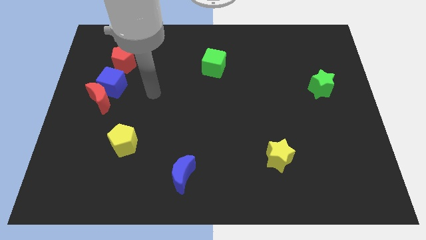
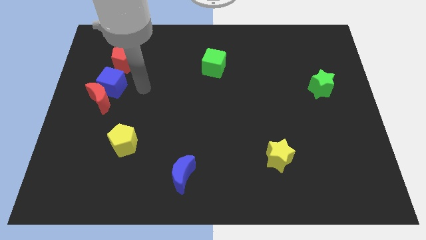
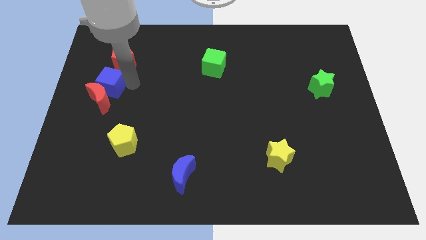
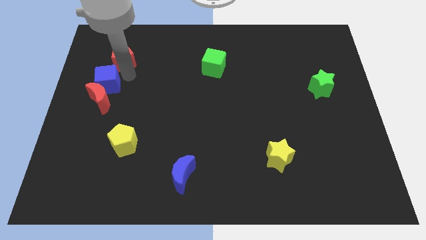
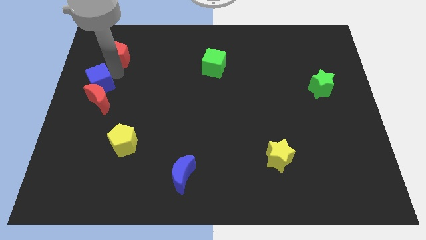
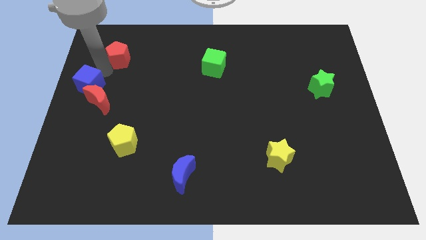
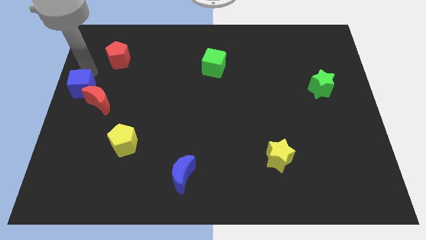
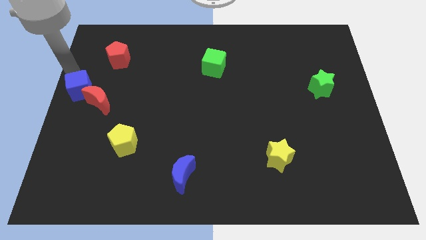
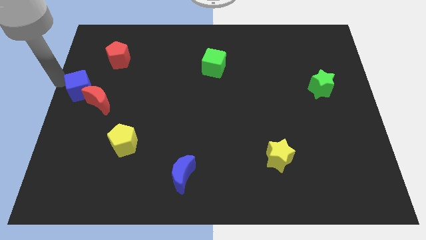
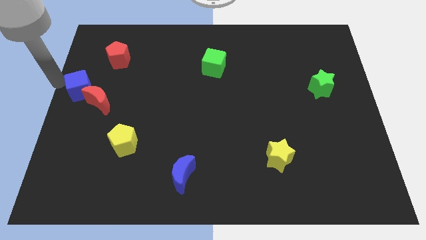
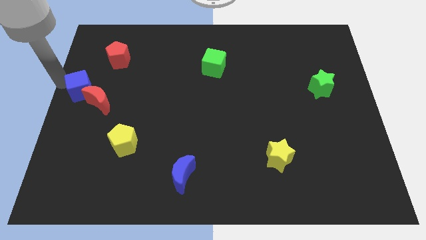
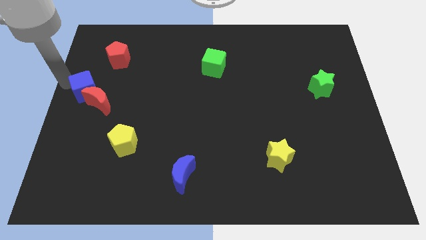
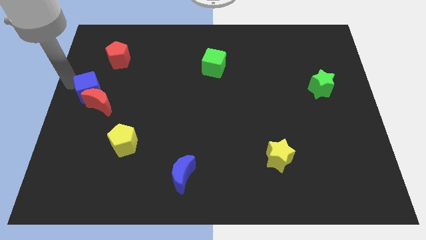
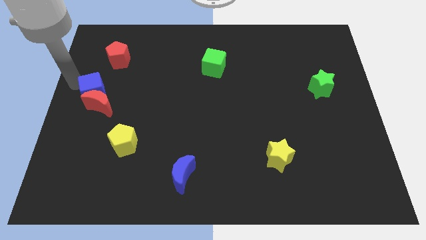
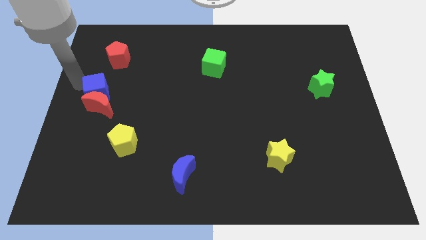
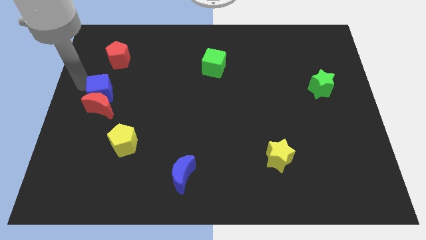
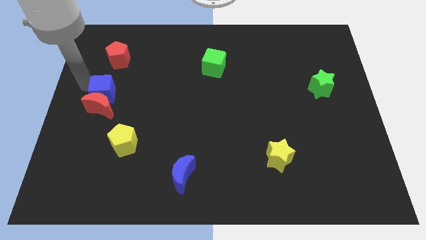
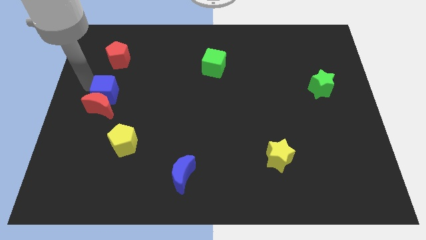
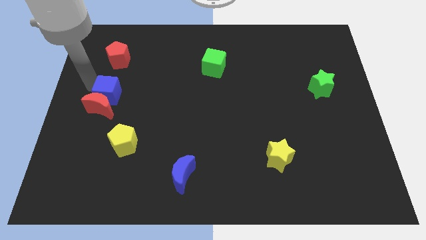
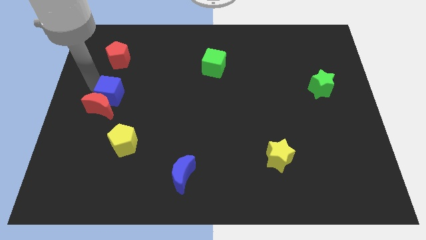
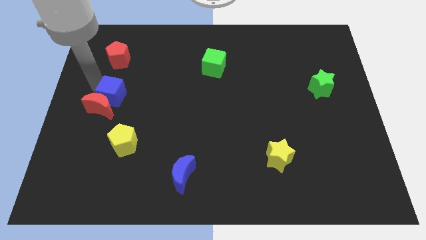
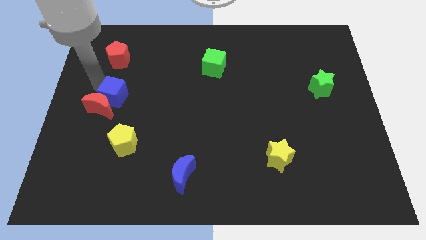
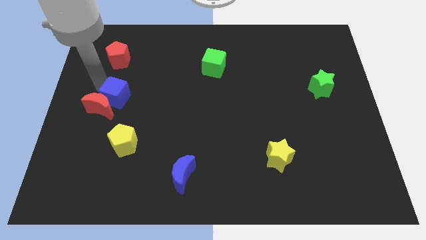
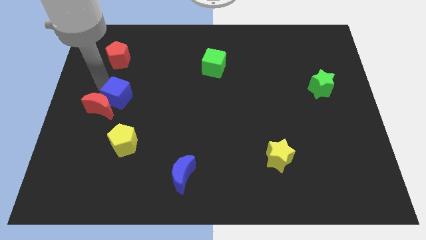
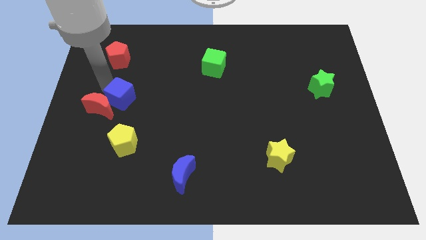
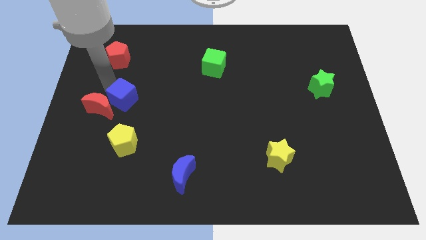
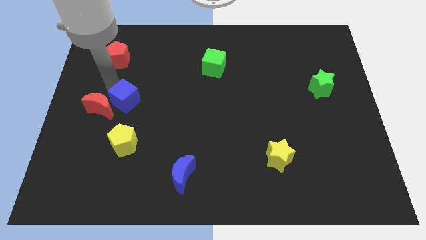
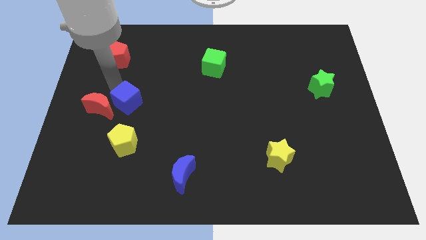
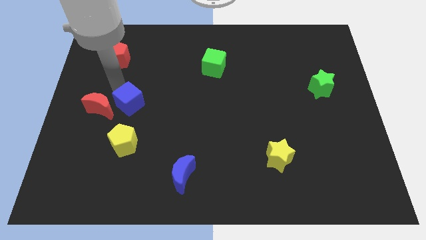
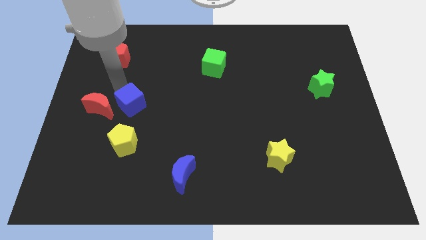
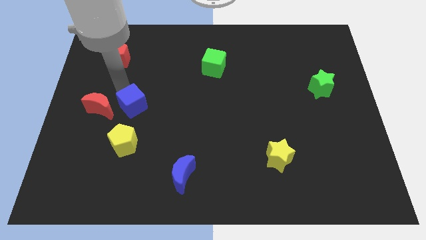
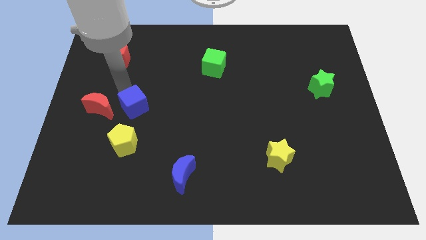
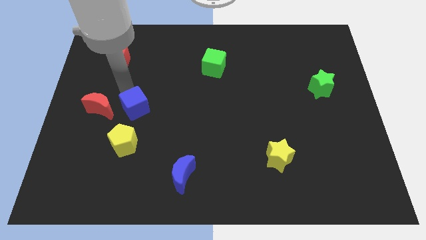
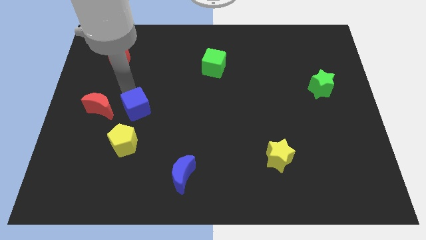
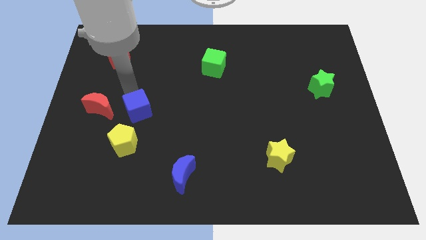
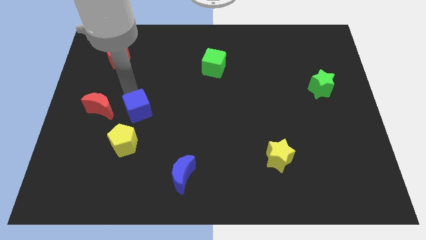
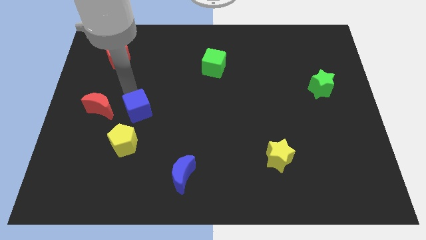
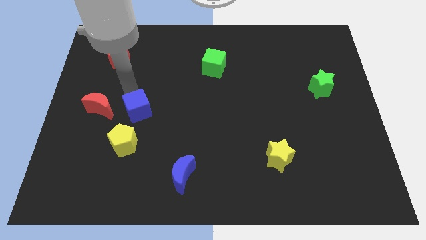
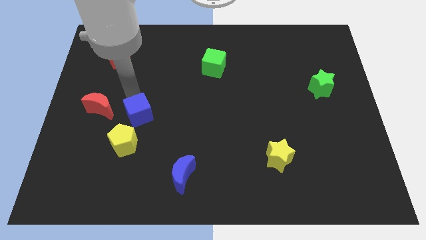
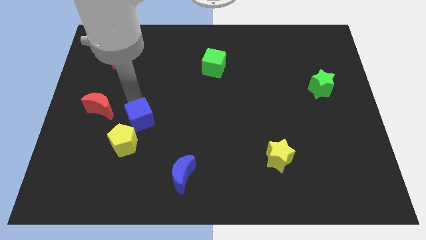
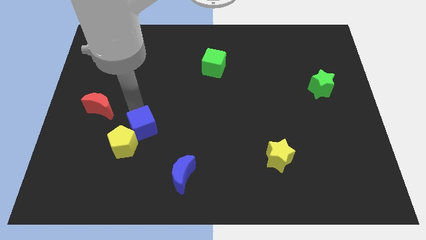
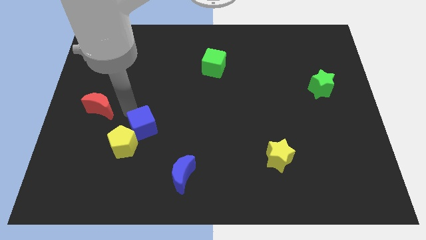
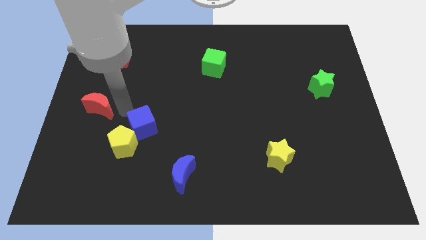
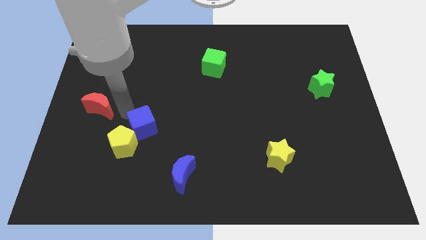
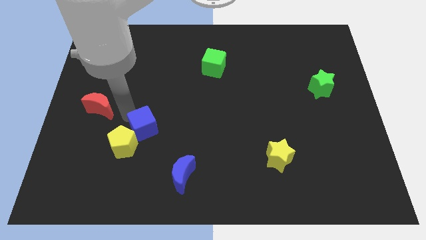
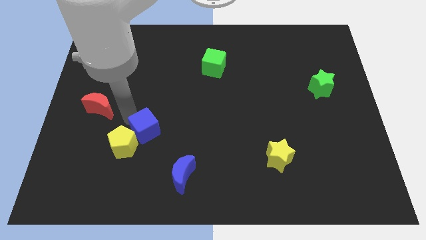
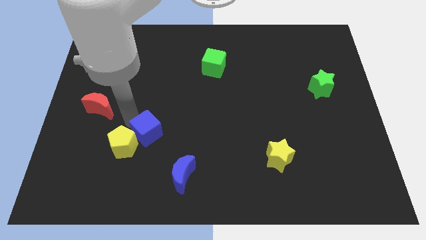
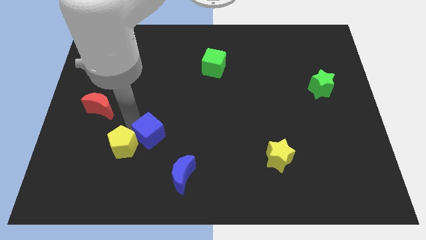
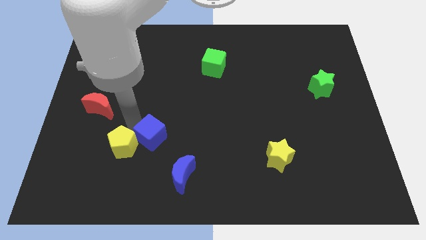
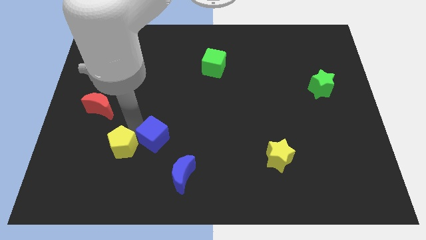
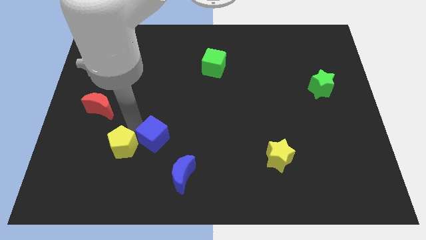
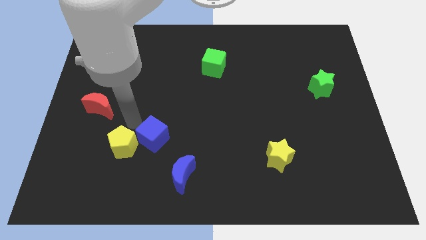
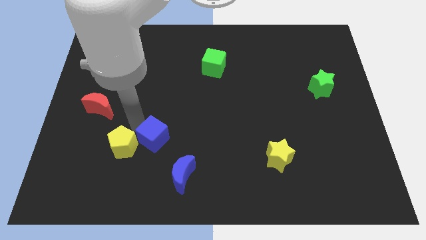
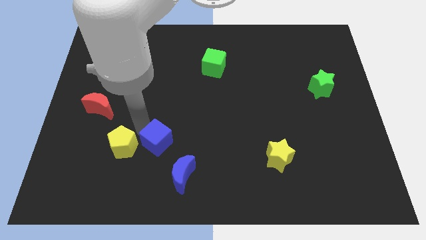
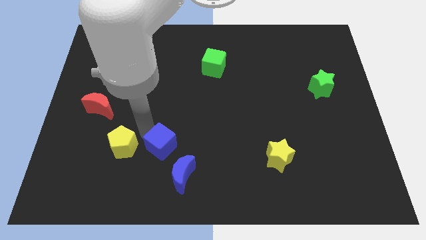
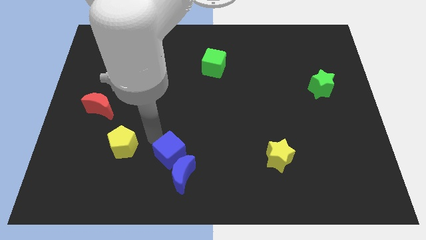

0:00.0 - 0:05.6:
push the blue cube towards the blue moon

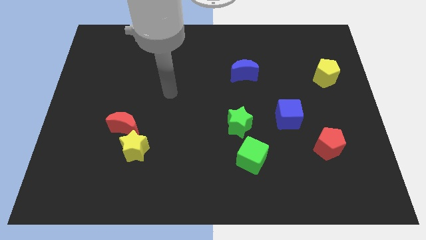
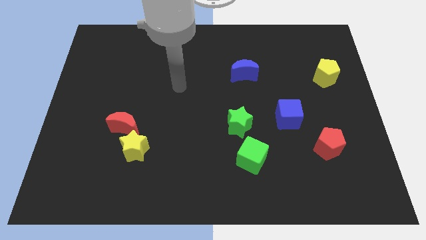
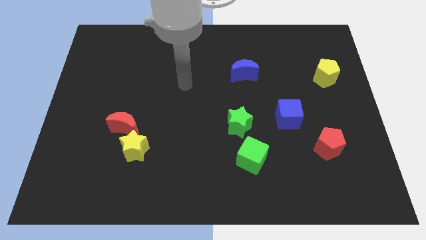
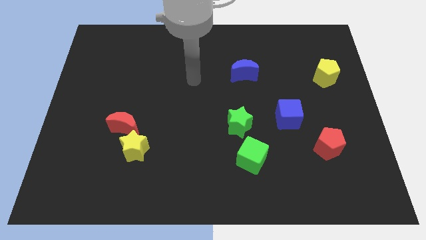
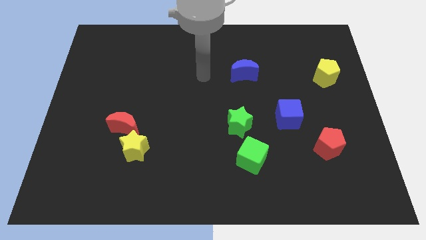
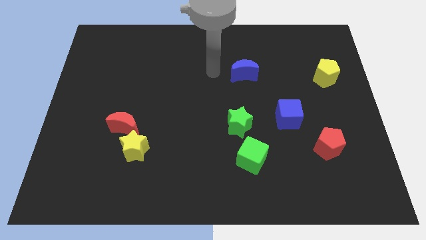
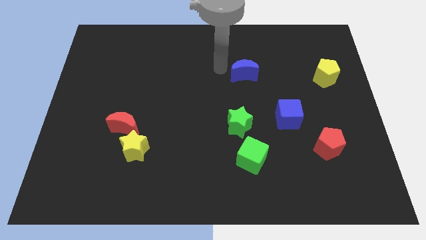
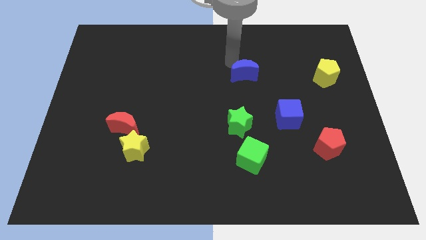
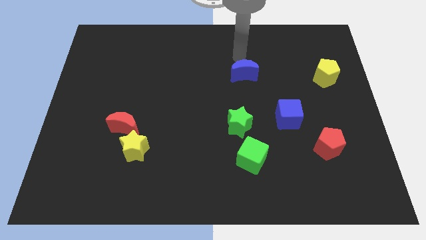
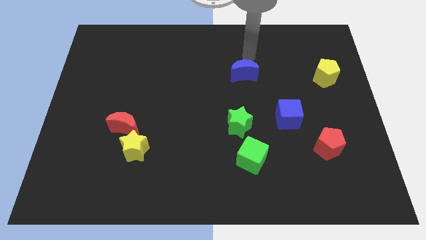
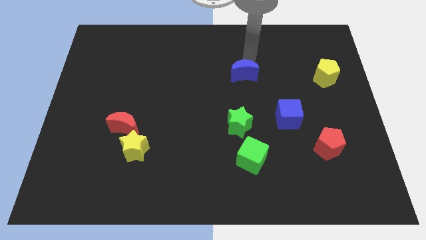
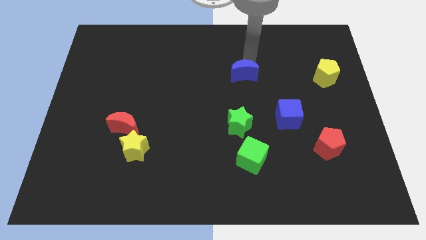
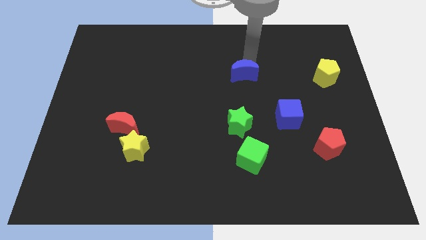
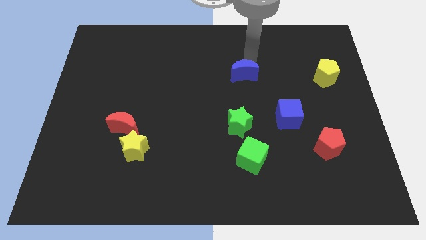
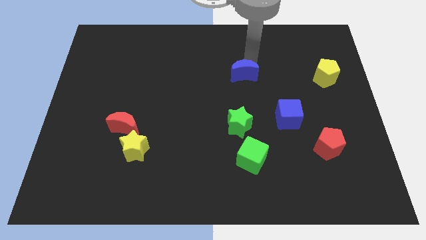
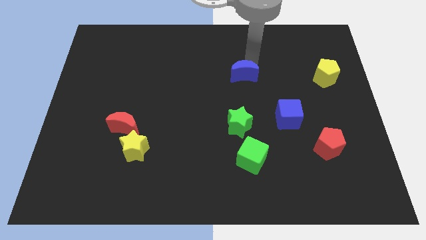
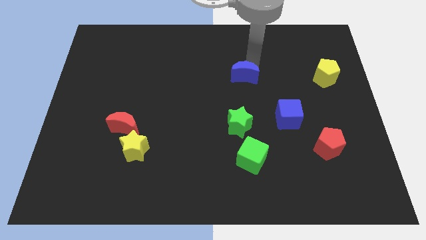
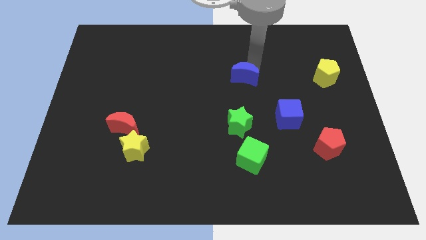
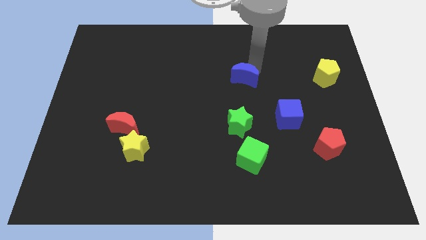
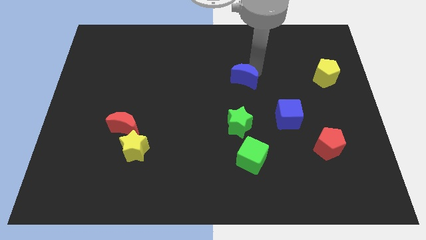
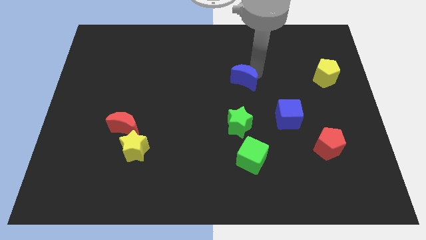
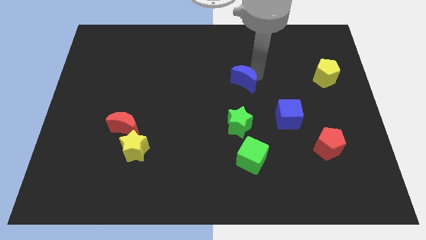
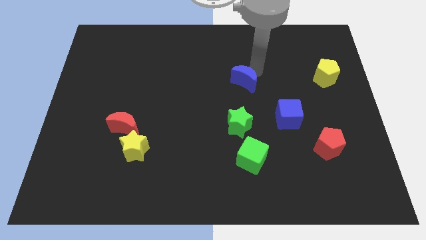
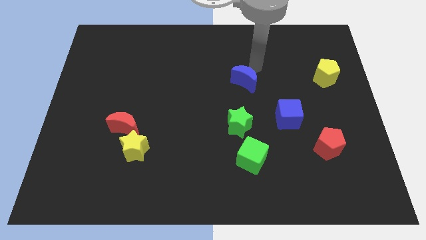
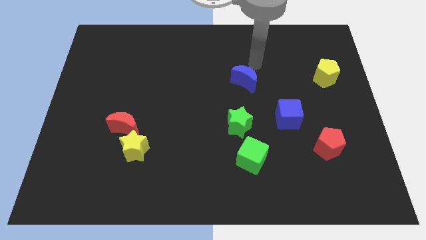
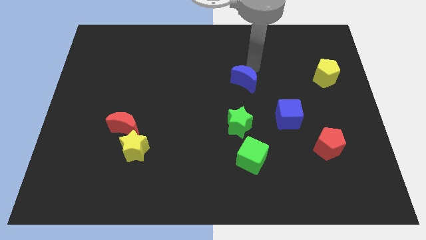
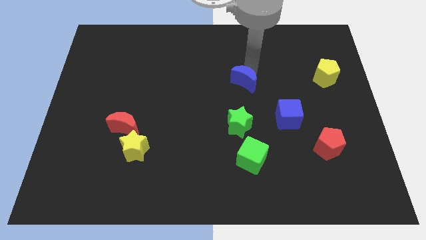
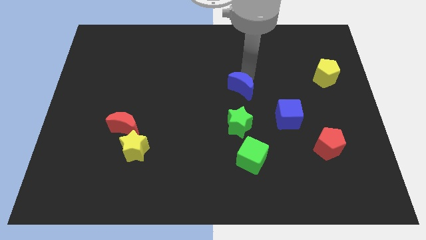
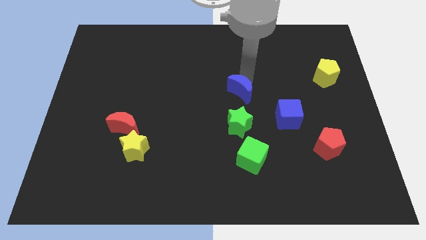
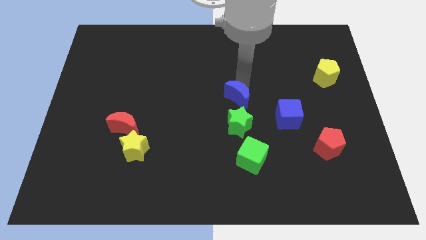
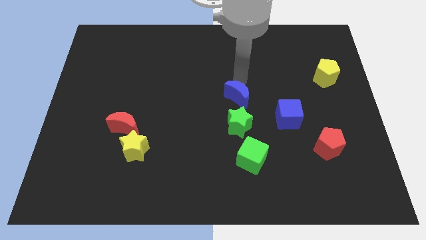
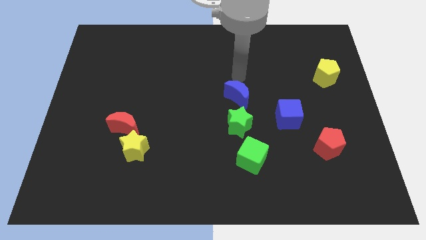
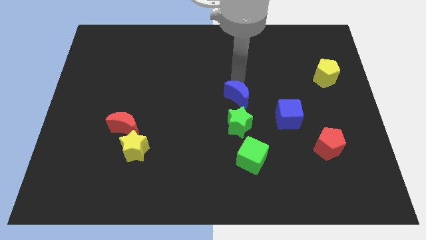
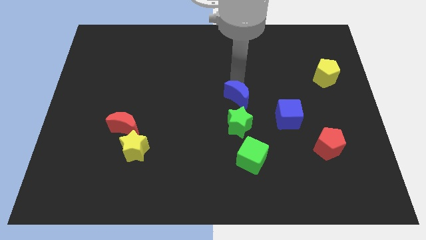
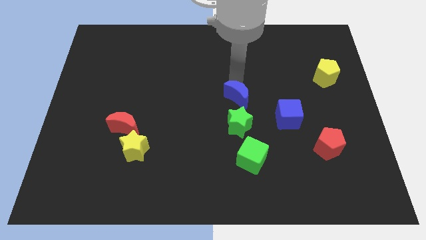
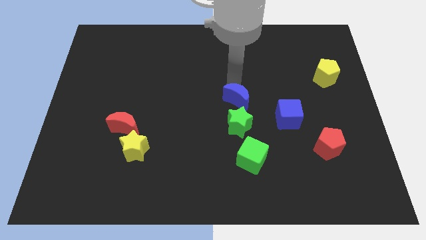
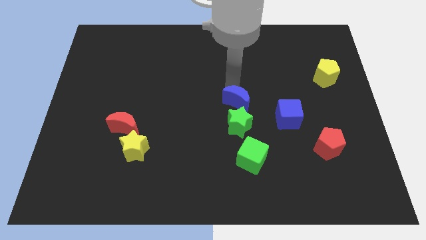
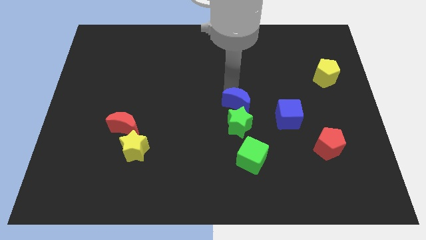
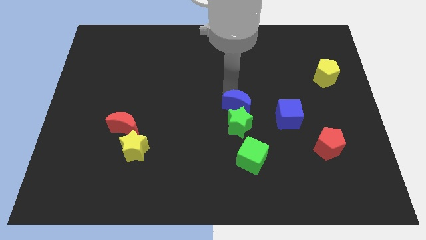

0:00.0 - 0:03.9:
push the blue moon next to the green star
